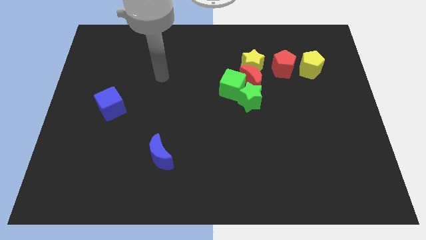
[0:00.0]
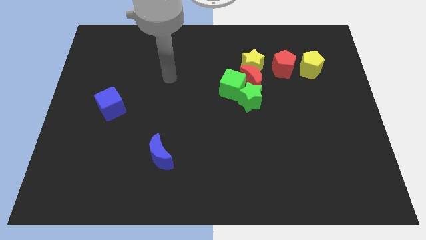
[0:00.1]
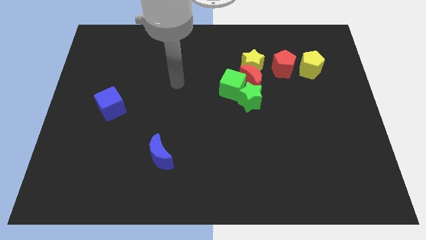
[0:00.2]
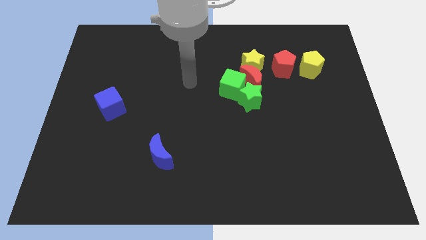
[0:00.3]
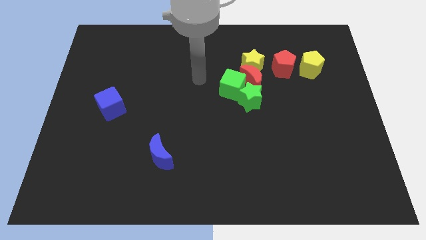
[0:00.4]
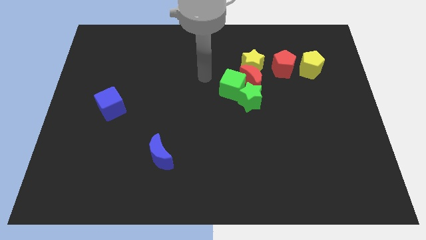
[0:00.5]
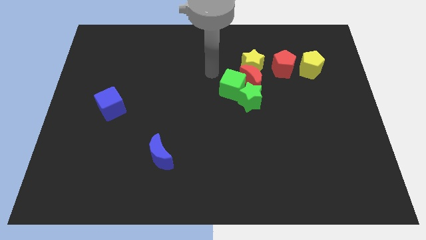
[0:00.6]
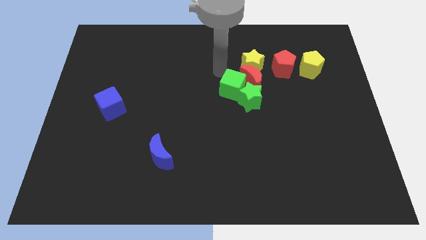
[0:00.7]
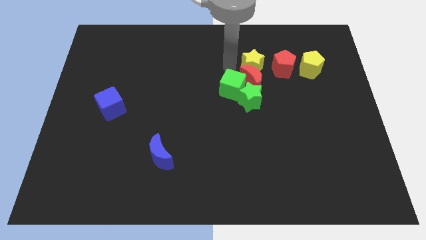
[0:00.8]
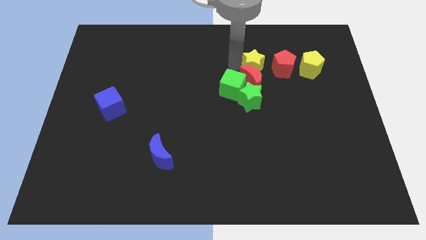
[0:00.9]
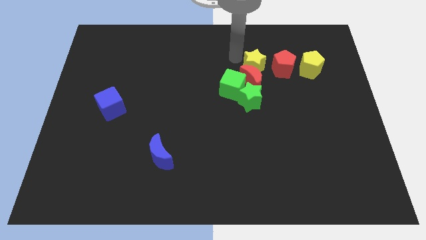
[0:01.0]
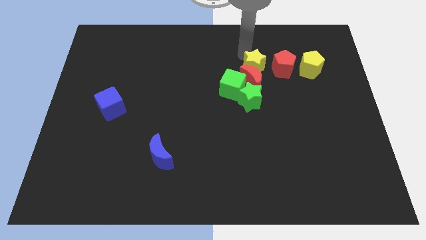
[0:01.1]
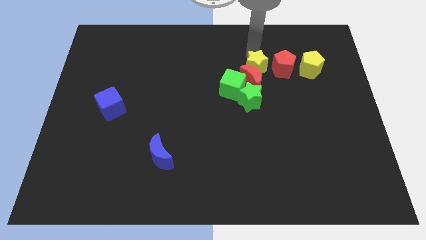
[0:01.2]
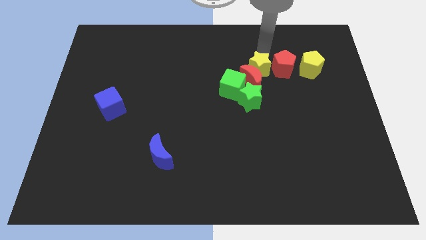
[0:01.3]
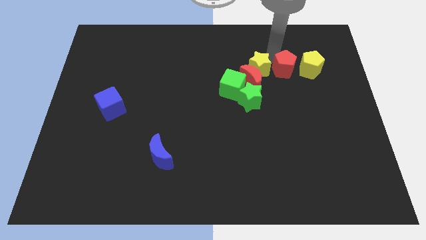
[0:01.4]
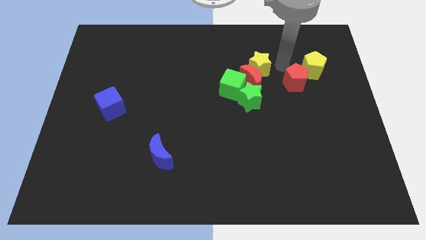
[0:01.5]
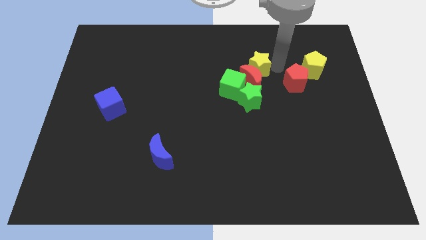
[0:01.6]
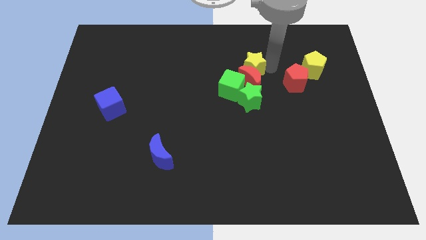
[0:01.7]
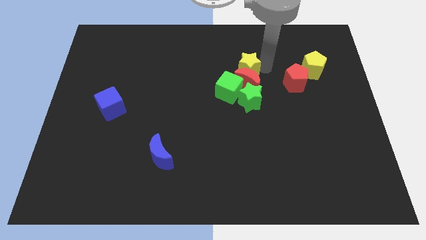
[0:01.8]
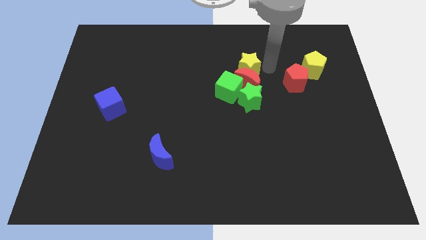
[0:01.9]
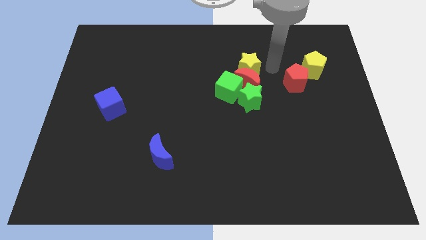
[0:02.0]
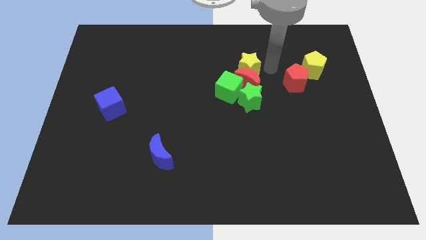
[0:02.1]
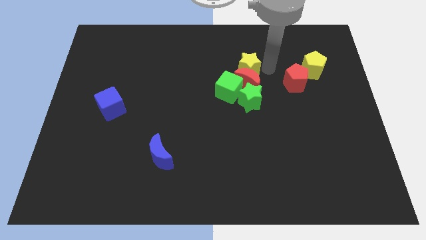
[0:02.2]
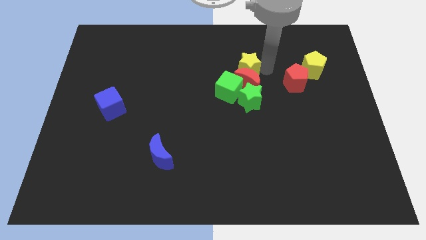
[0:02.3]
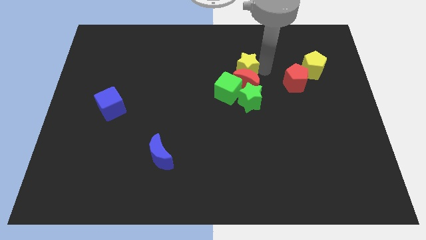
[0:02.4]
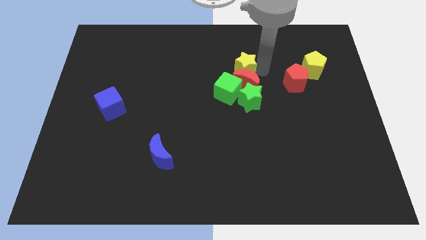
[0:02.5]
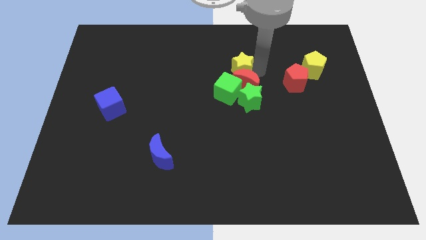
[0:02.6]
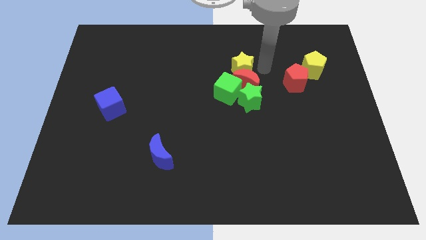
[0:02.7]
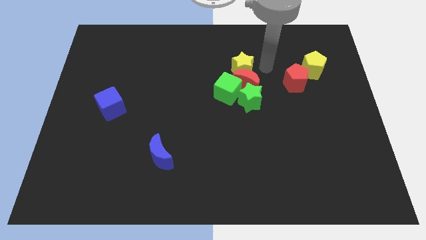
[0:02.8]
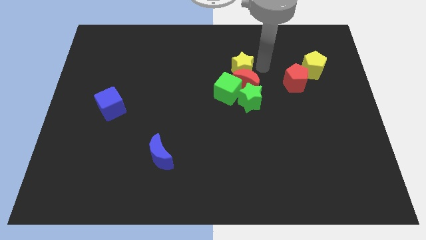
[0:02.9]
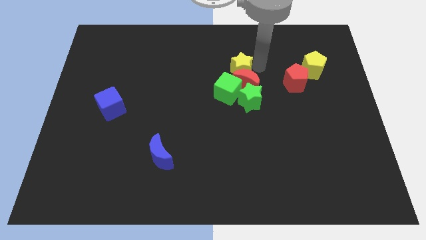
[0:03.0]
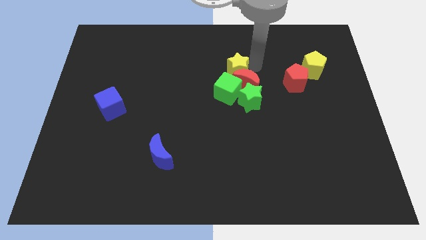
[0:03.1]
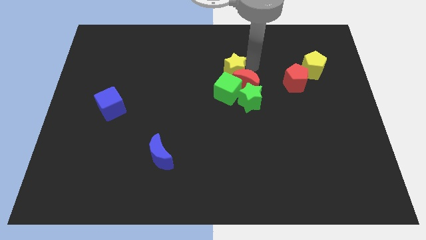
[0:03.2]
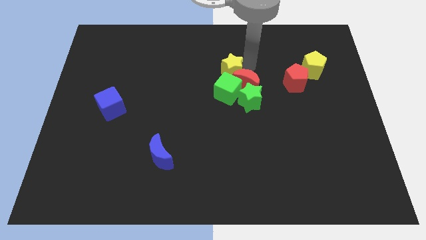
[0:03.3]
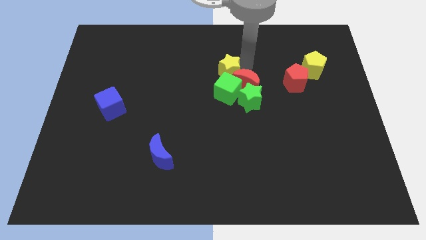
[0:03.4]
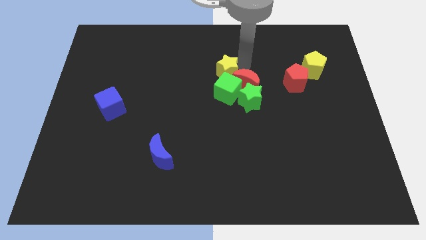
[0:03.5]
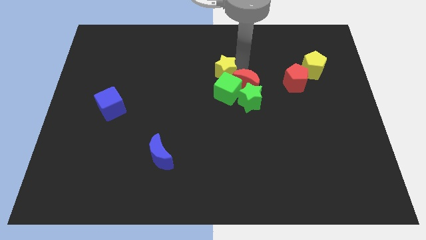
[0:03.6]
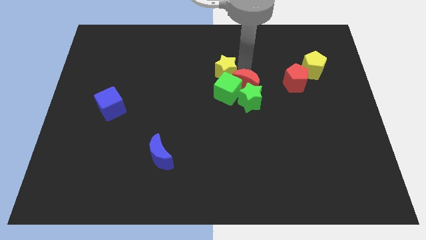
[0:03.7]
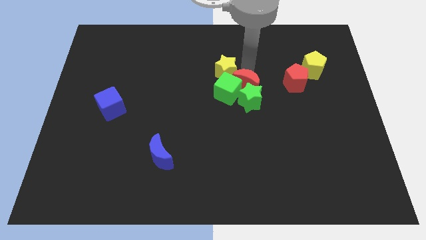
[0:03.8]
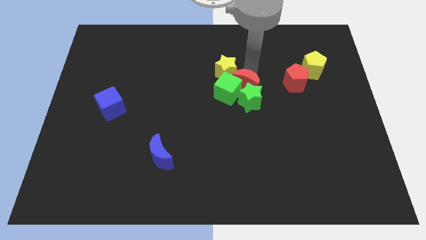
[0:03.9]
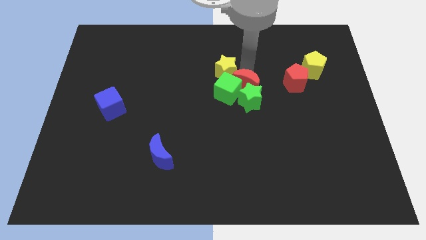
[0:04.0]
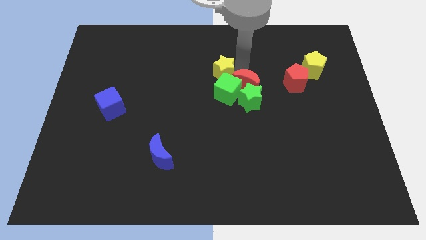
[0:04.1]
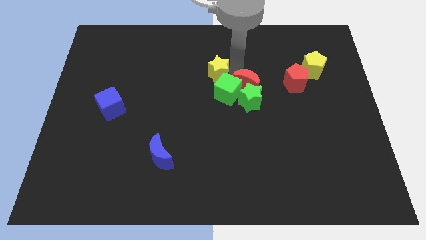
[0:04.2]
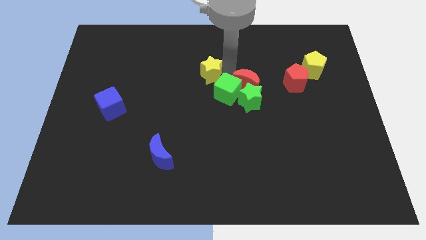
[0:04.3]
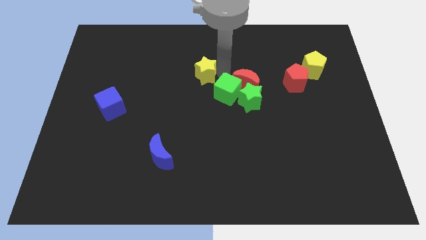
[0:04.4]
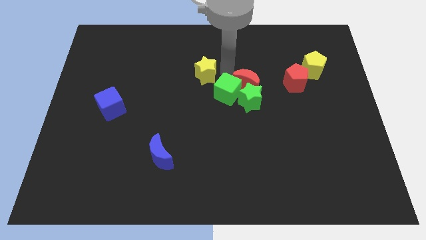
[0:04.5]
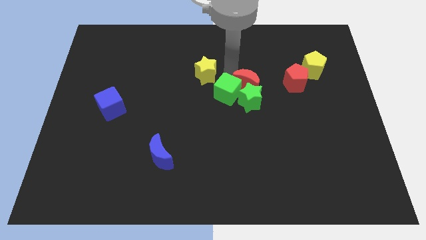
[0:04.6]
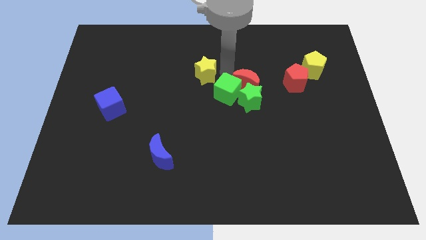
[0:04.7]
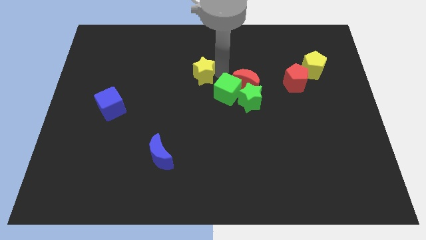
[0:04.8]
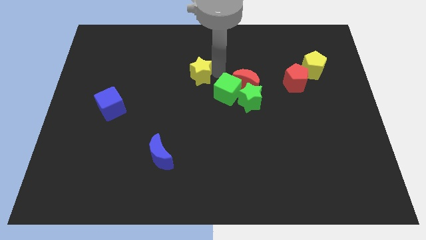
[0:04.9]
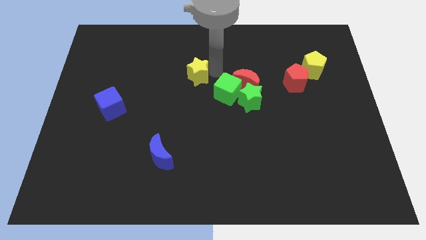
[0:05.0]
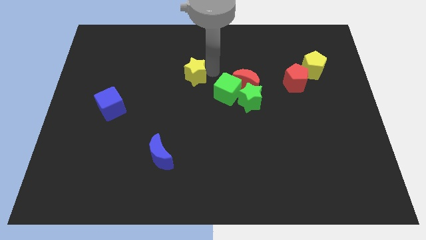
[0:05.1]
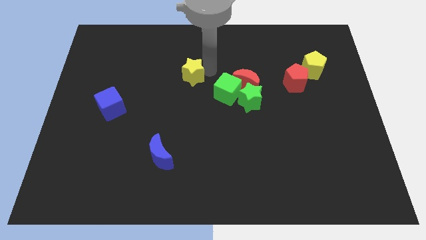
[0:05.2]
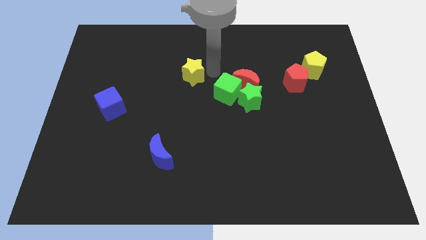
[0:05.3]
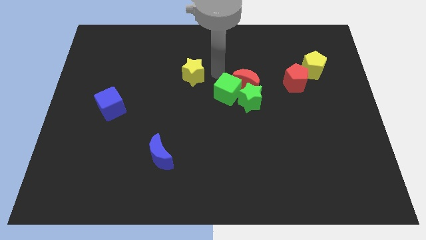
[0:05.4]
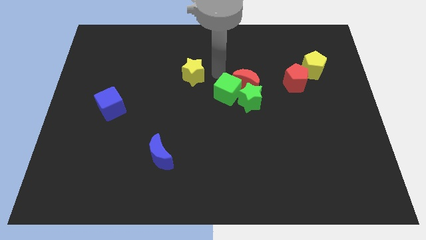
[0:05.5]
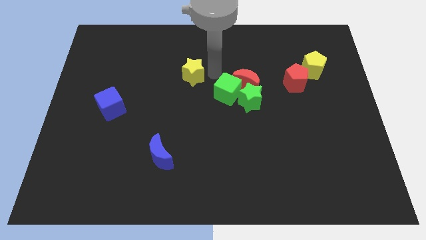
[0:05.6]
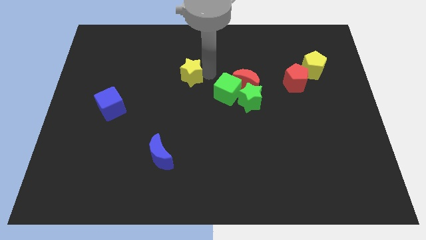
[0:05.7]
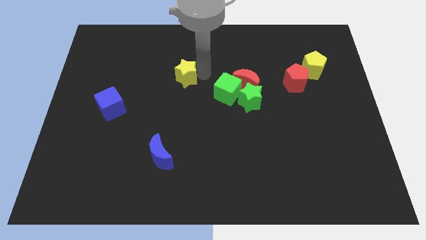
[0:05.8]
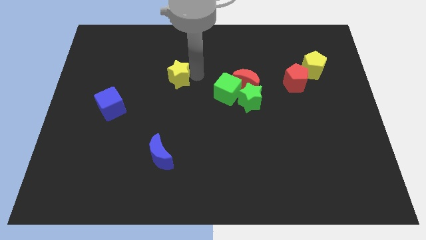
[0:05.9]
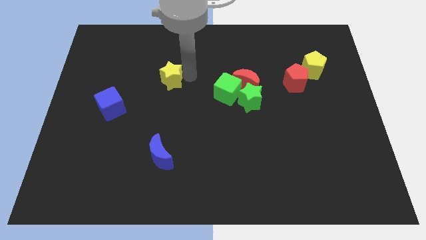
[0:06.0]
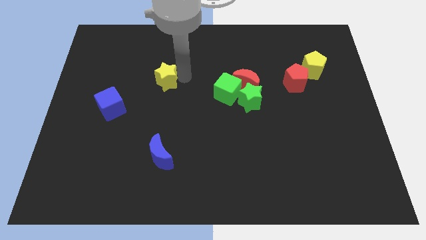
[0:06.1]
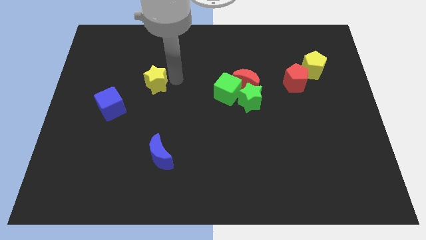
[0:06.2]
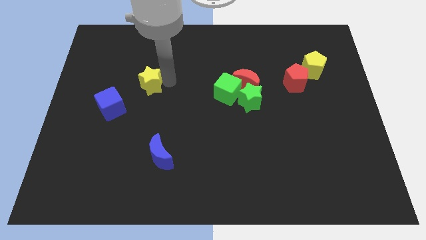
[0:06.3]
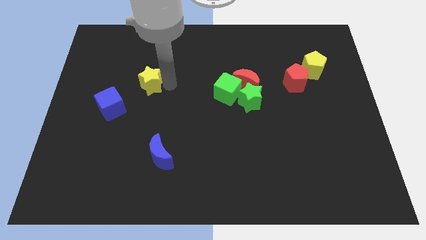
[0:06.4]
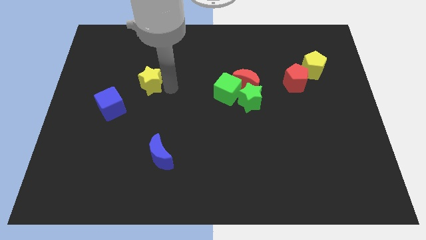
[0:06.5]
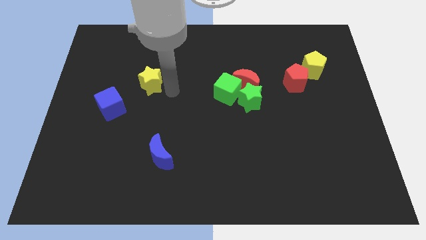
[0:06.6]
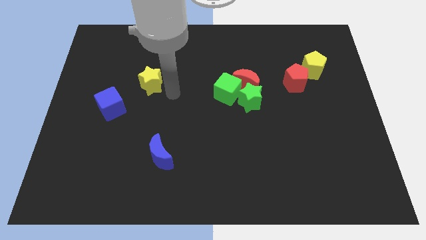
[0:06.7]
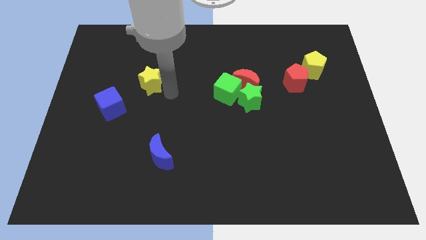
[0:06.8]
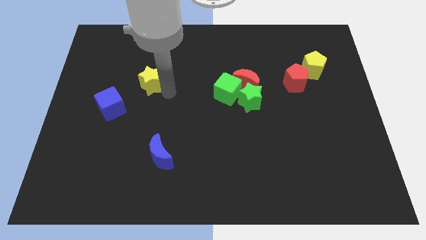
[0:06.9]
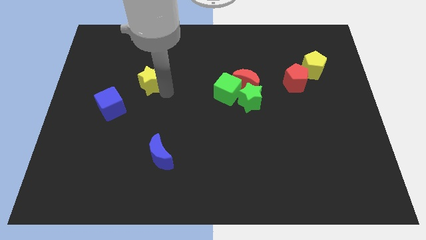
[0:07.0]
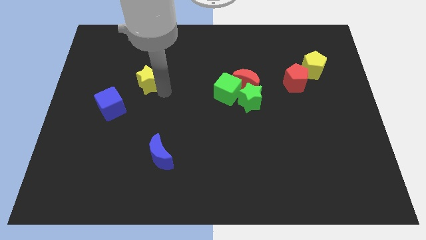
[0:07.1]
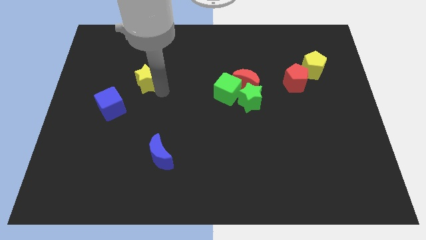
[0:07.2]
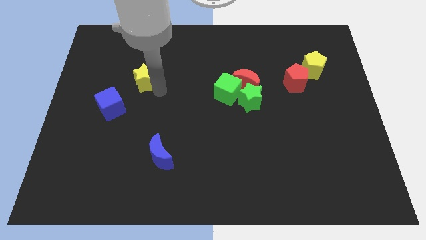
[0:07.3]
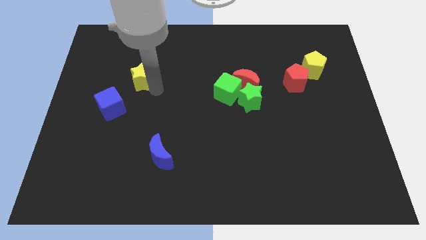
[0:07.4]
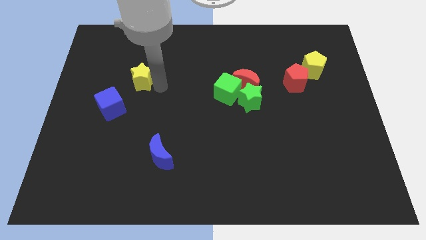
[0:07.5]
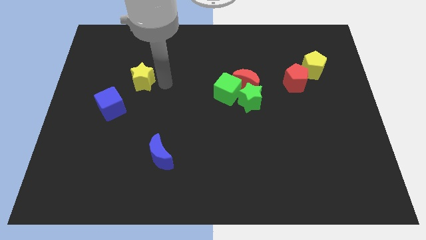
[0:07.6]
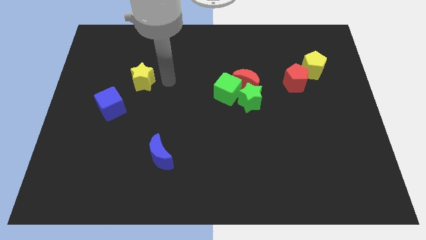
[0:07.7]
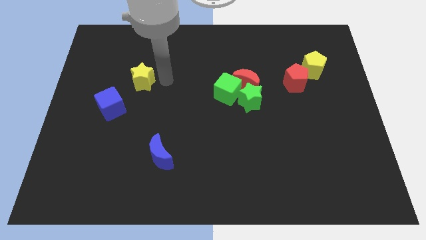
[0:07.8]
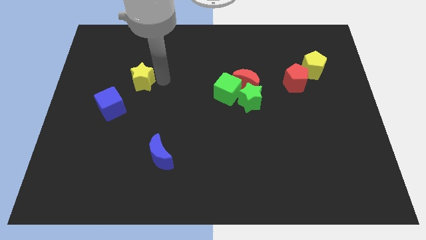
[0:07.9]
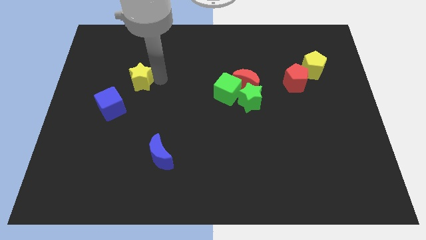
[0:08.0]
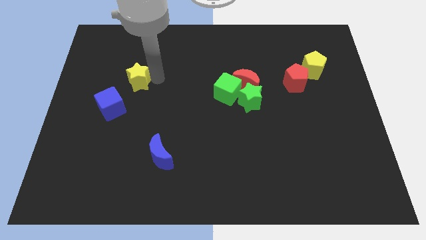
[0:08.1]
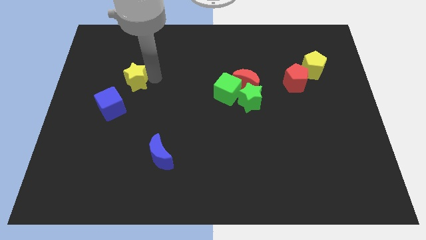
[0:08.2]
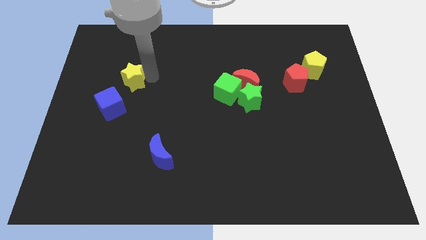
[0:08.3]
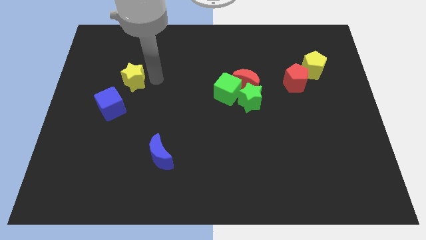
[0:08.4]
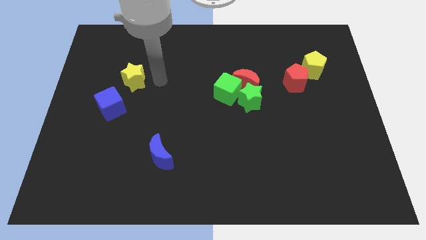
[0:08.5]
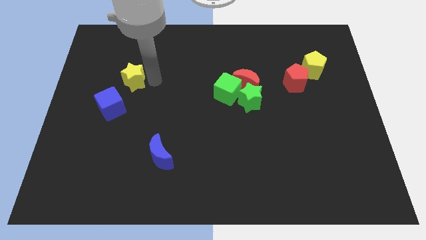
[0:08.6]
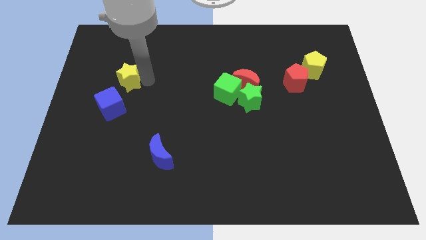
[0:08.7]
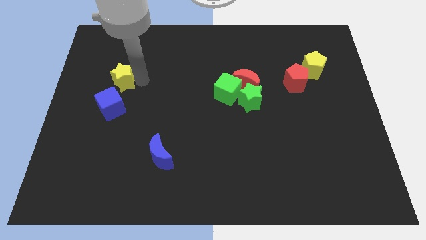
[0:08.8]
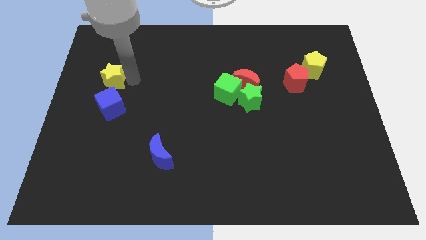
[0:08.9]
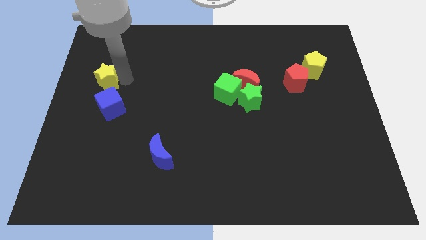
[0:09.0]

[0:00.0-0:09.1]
put the yellow star to the left side
